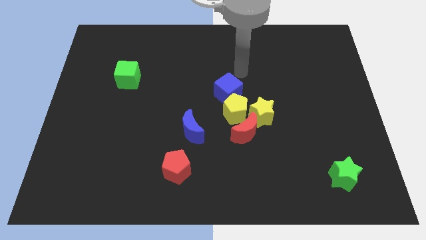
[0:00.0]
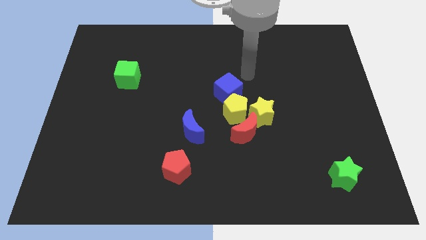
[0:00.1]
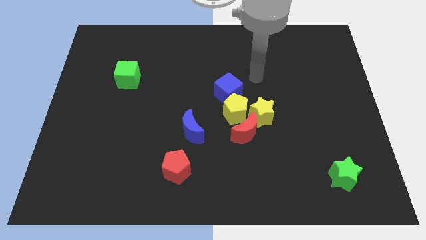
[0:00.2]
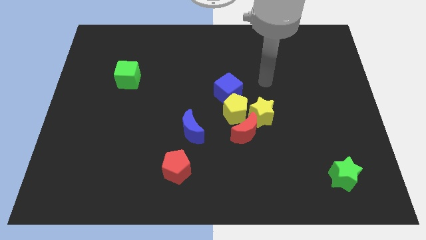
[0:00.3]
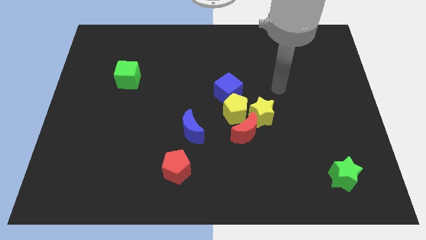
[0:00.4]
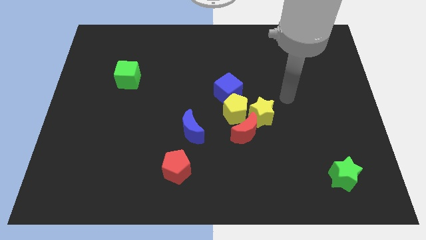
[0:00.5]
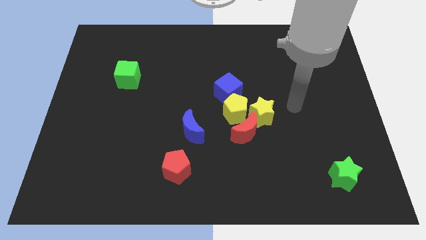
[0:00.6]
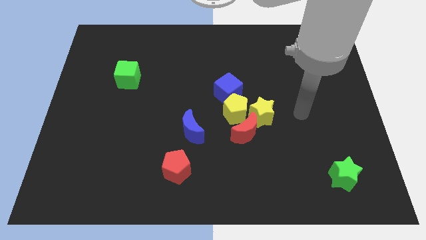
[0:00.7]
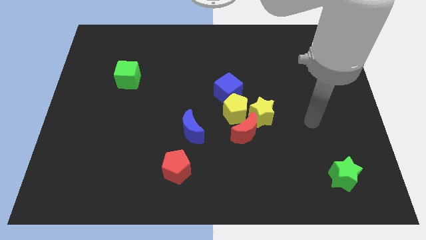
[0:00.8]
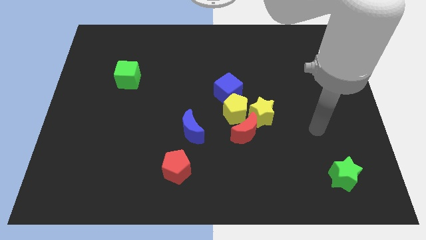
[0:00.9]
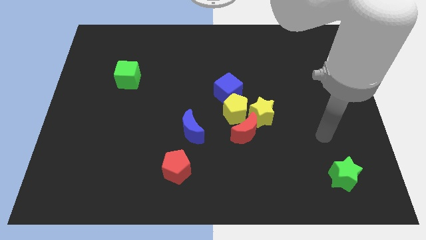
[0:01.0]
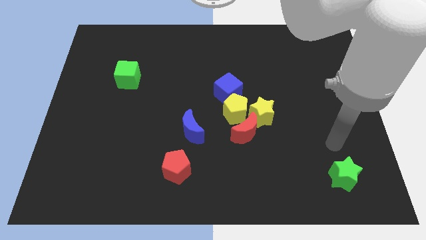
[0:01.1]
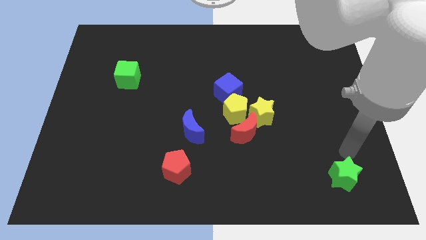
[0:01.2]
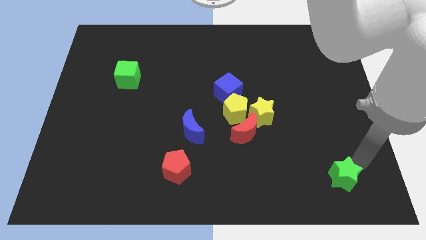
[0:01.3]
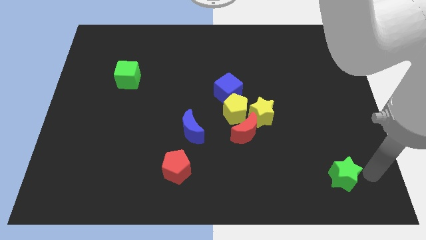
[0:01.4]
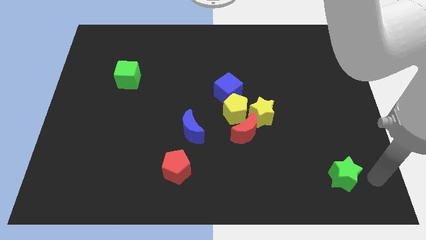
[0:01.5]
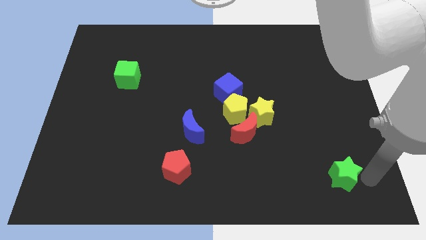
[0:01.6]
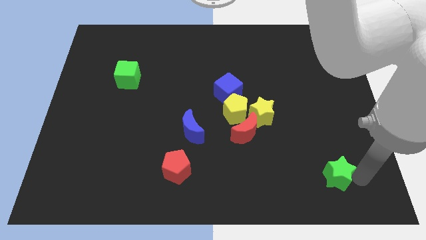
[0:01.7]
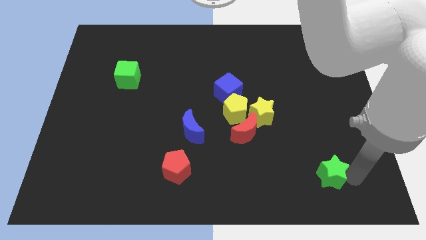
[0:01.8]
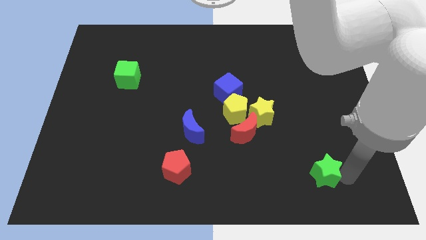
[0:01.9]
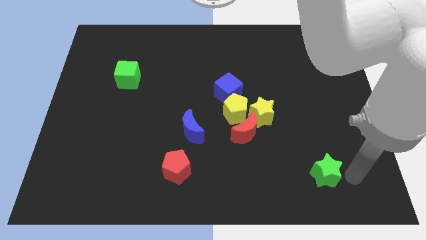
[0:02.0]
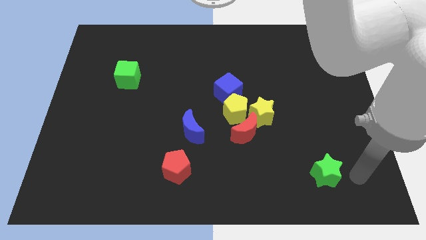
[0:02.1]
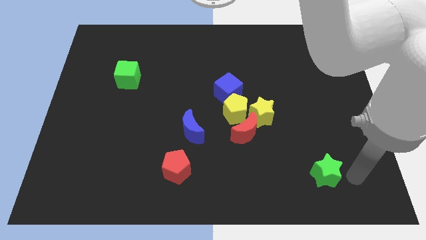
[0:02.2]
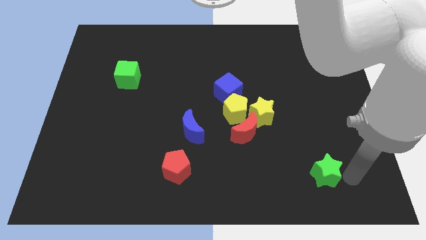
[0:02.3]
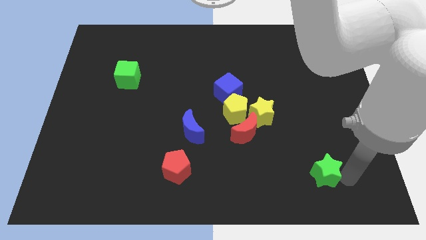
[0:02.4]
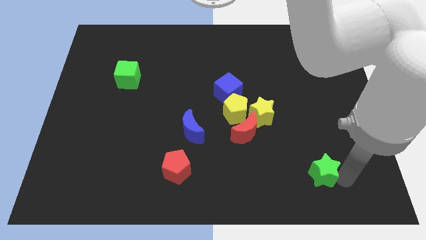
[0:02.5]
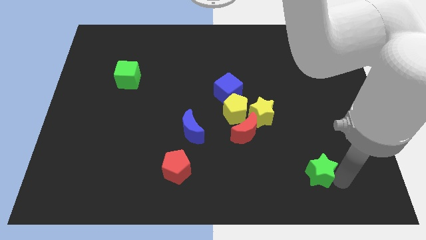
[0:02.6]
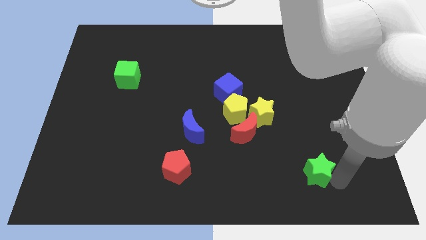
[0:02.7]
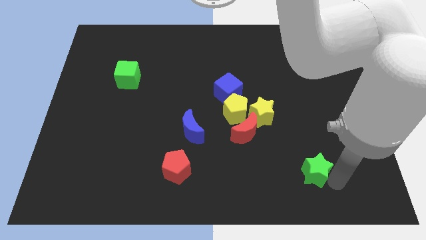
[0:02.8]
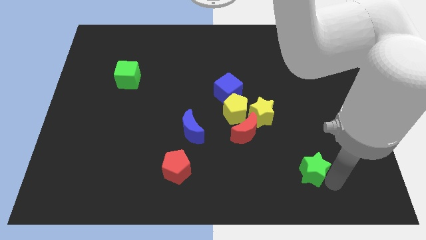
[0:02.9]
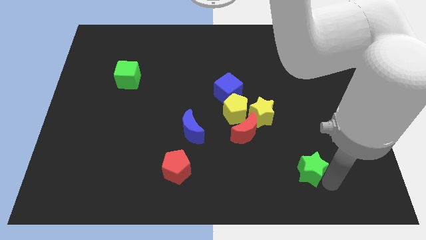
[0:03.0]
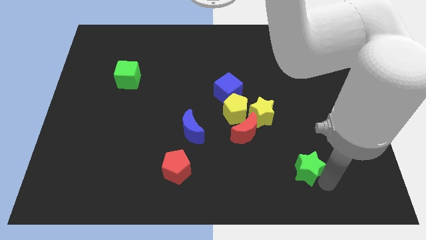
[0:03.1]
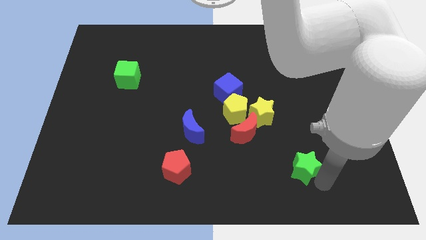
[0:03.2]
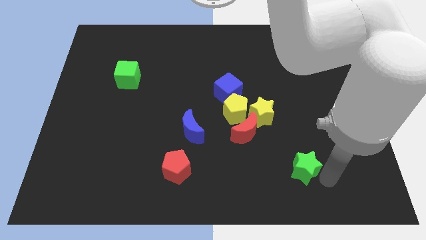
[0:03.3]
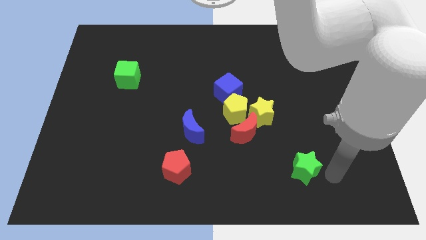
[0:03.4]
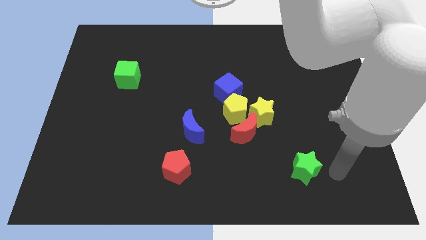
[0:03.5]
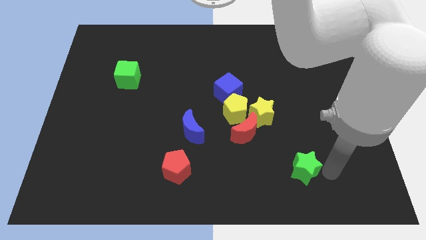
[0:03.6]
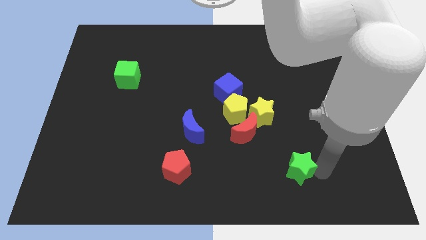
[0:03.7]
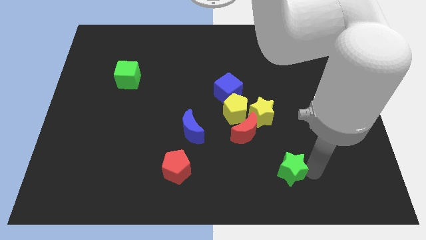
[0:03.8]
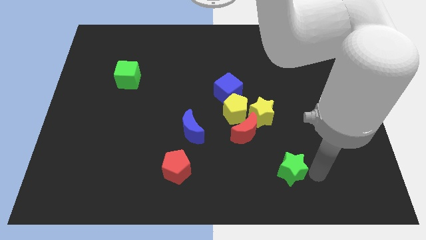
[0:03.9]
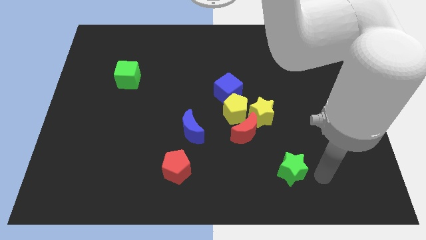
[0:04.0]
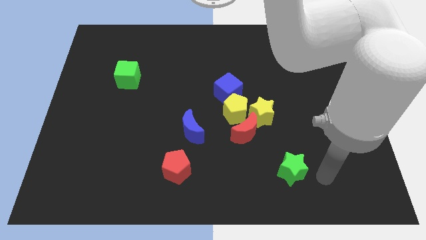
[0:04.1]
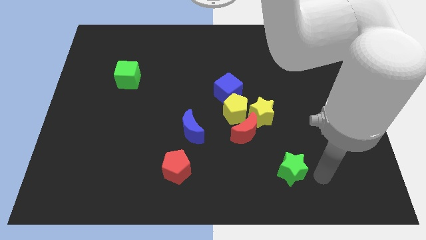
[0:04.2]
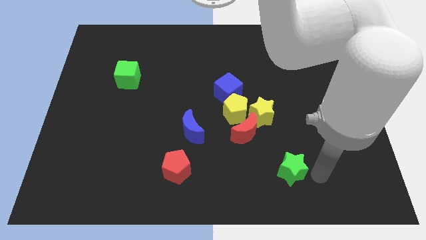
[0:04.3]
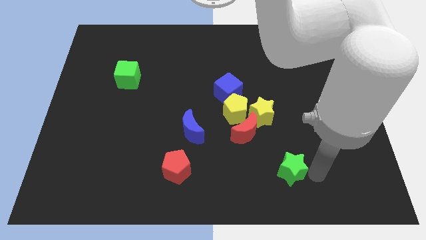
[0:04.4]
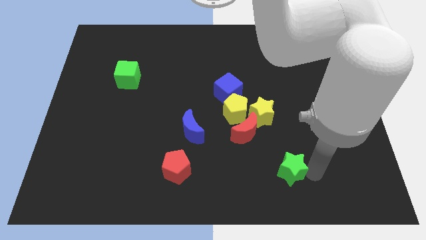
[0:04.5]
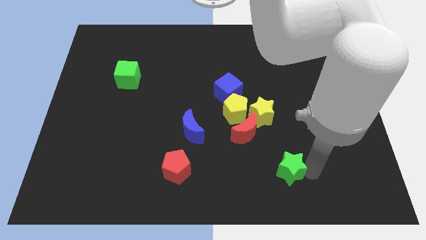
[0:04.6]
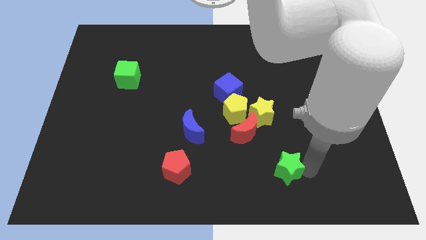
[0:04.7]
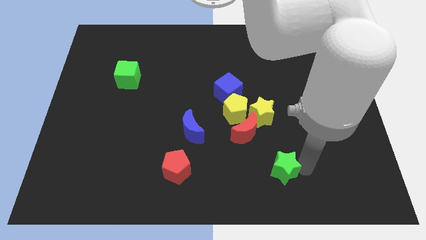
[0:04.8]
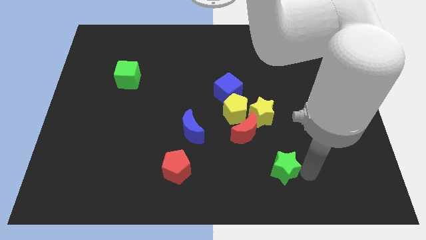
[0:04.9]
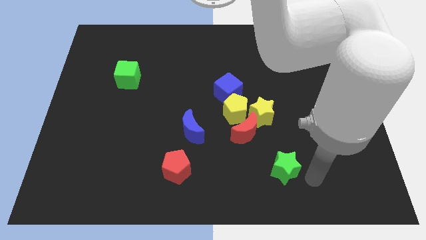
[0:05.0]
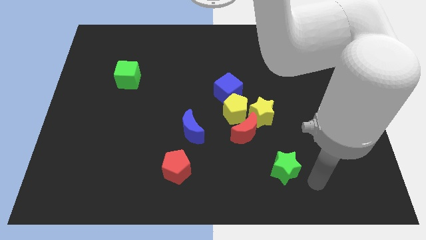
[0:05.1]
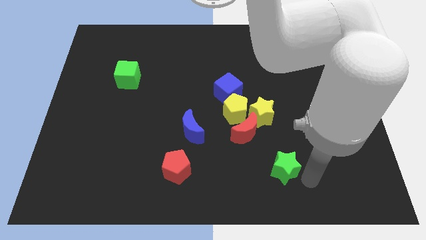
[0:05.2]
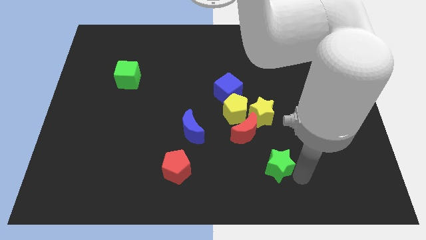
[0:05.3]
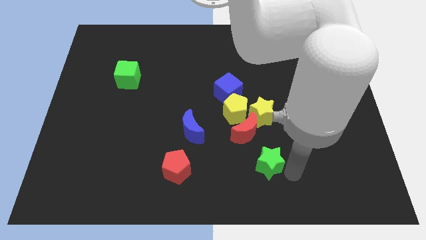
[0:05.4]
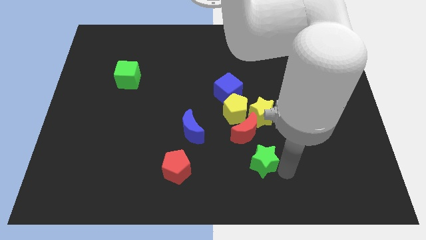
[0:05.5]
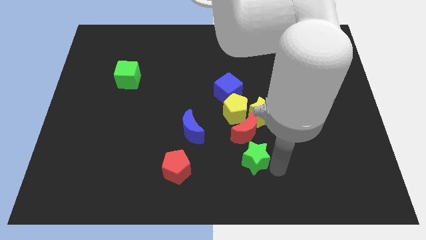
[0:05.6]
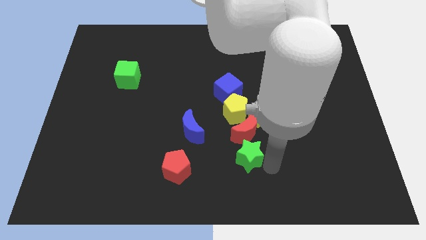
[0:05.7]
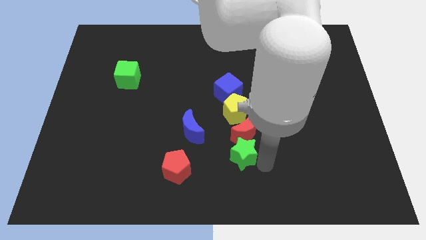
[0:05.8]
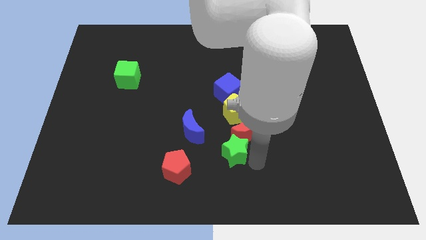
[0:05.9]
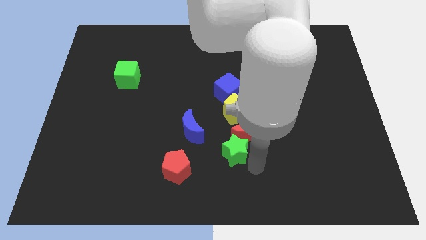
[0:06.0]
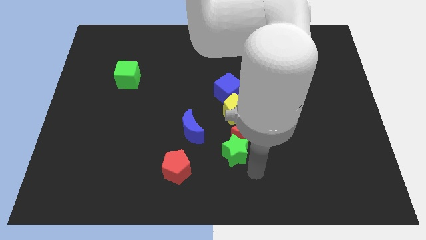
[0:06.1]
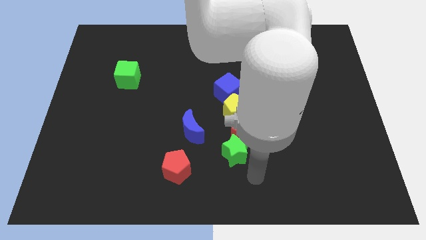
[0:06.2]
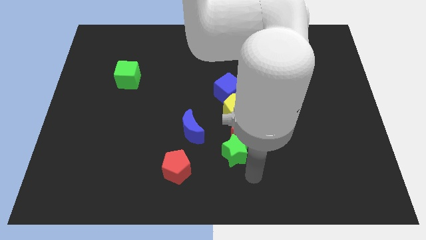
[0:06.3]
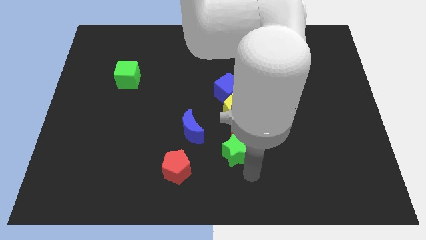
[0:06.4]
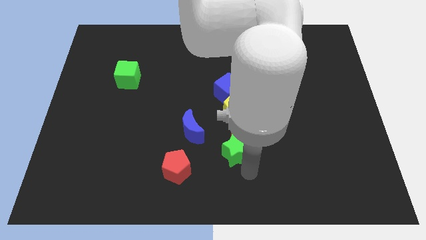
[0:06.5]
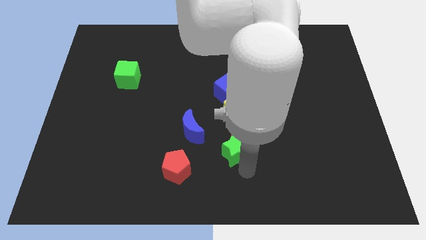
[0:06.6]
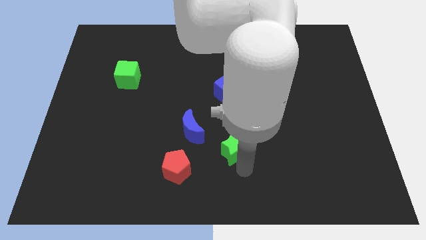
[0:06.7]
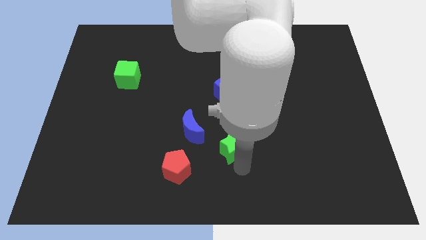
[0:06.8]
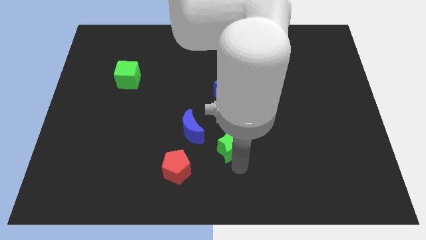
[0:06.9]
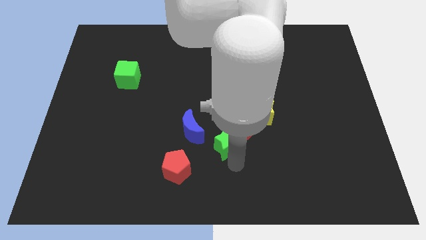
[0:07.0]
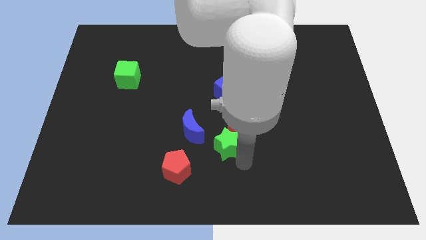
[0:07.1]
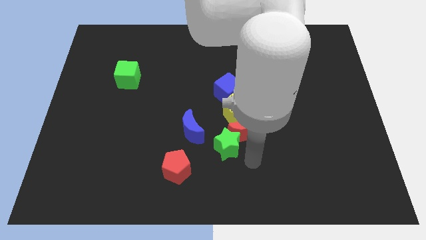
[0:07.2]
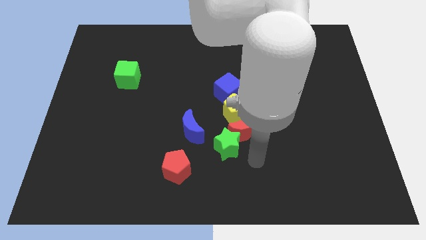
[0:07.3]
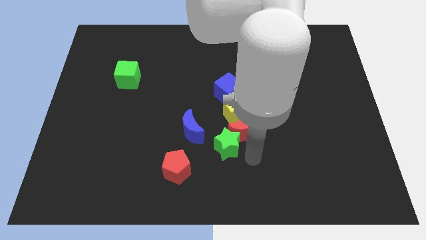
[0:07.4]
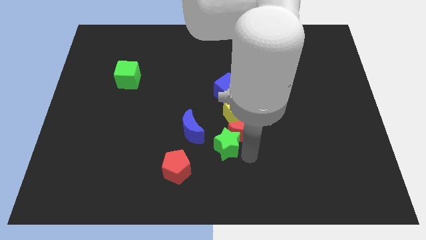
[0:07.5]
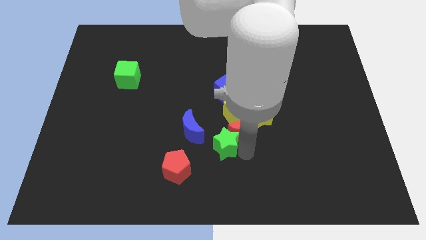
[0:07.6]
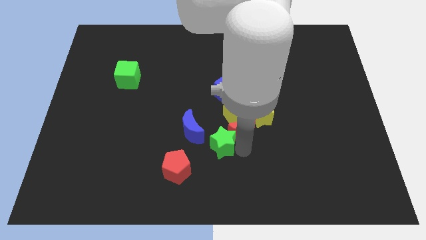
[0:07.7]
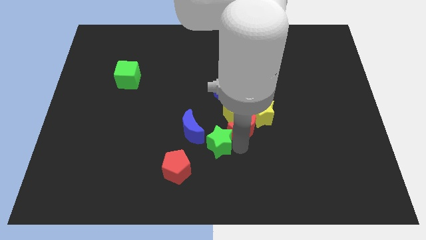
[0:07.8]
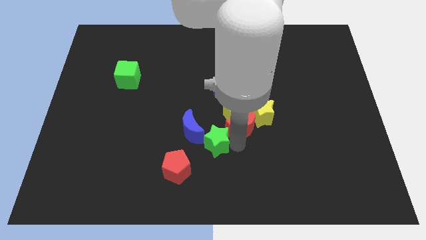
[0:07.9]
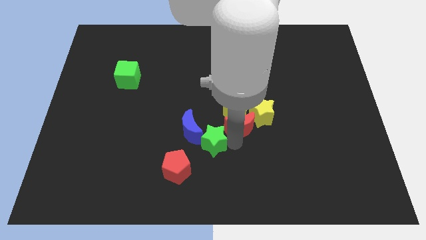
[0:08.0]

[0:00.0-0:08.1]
slide the green star to the blue moon

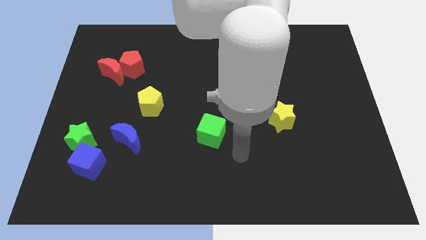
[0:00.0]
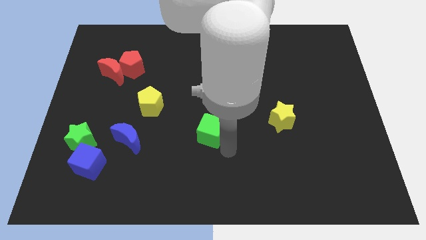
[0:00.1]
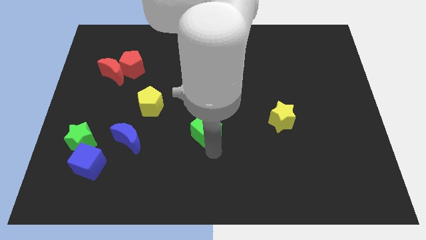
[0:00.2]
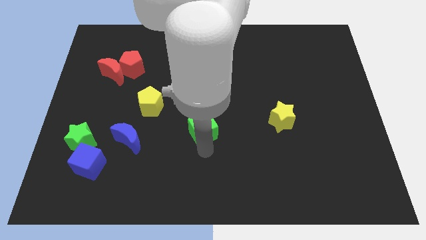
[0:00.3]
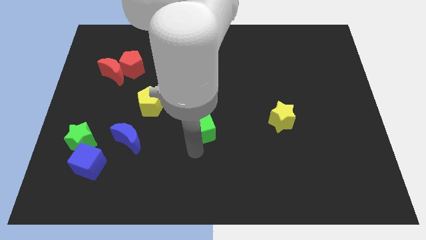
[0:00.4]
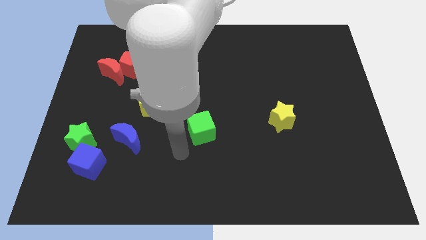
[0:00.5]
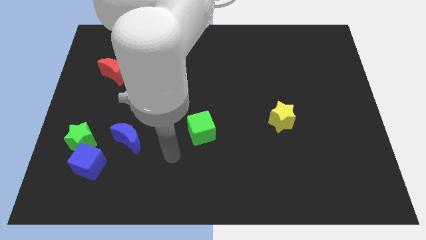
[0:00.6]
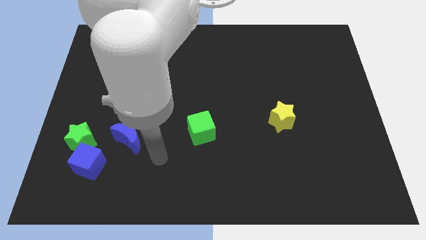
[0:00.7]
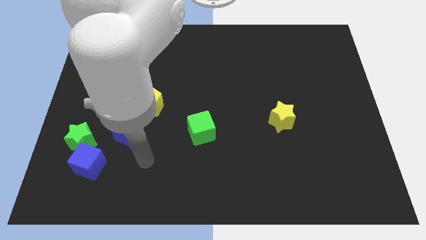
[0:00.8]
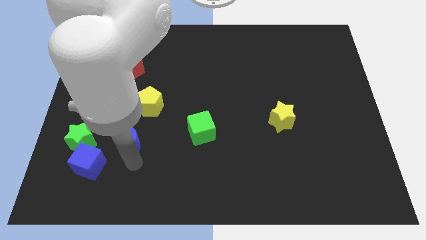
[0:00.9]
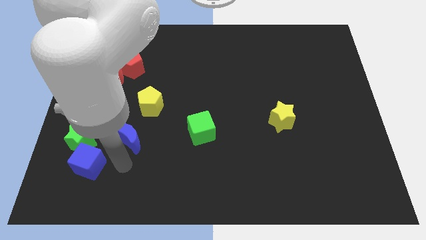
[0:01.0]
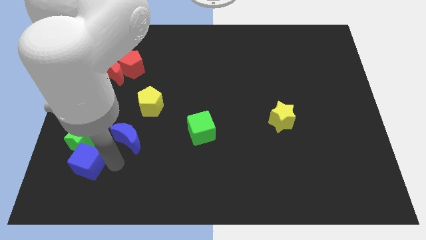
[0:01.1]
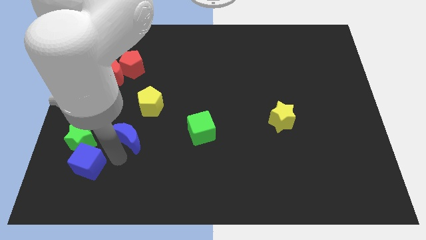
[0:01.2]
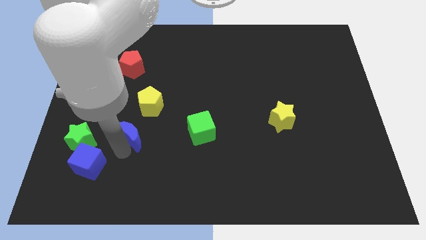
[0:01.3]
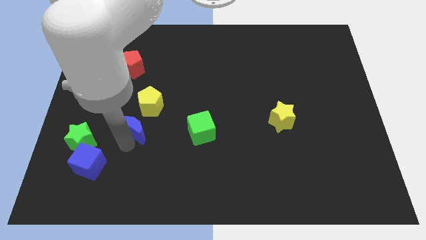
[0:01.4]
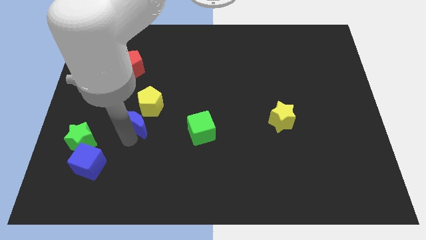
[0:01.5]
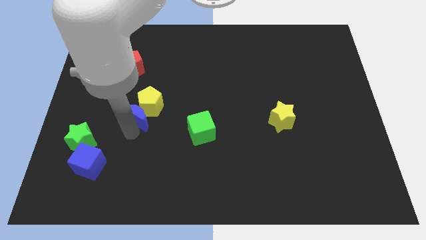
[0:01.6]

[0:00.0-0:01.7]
push the blue moon to the yellow pentagon
